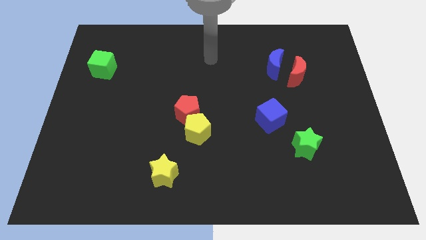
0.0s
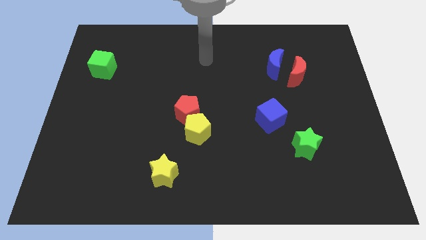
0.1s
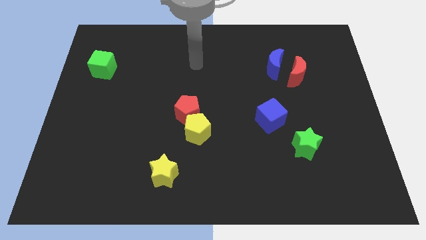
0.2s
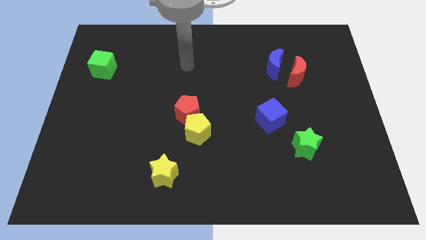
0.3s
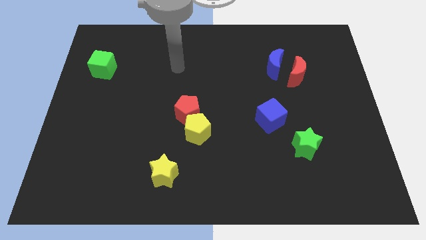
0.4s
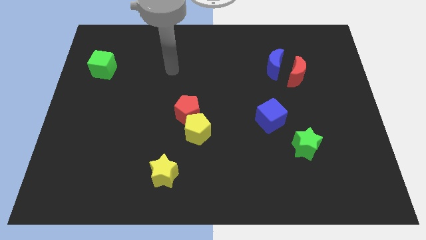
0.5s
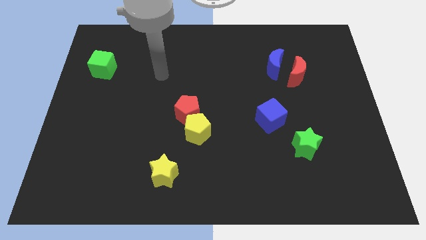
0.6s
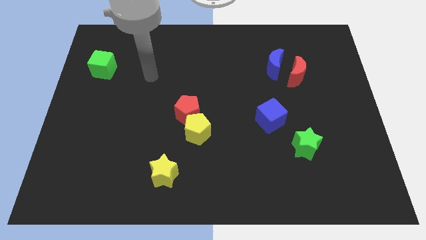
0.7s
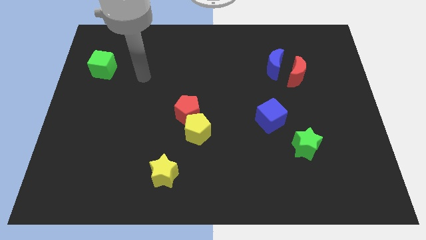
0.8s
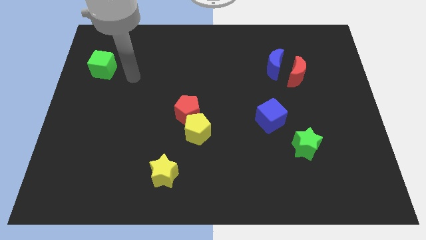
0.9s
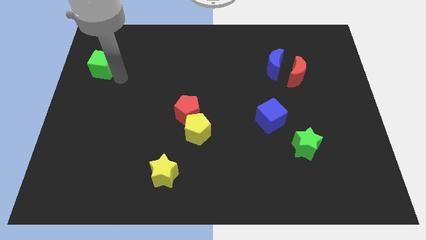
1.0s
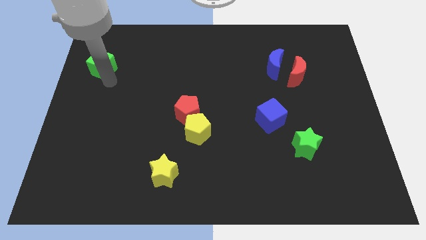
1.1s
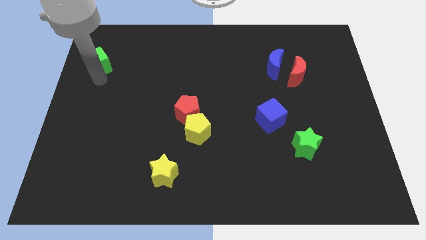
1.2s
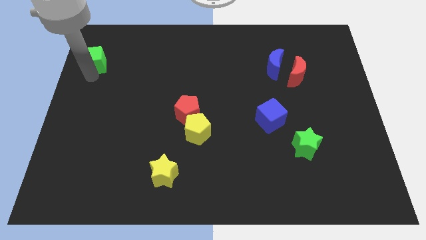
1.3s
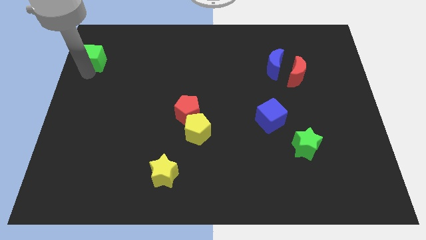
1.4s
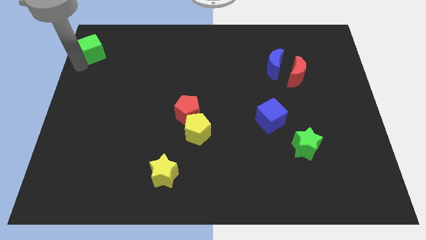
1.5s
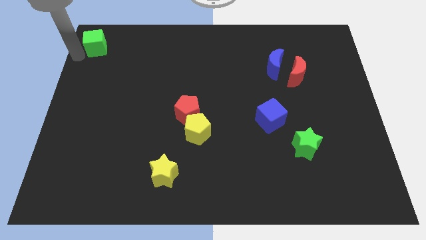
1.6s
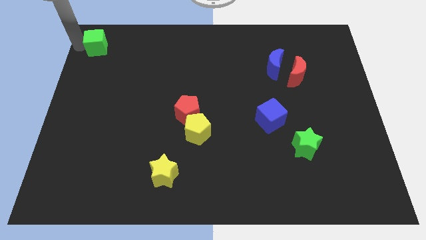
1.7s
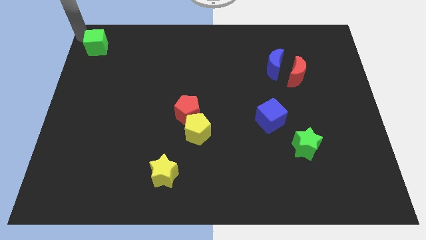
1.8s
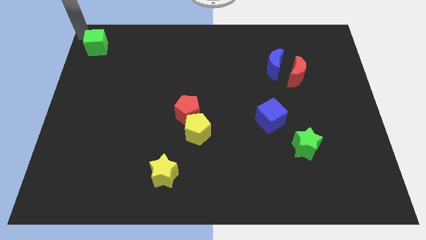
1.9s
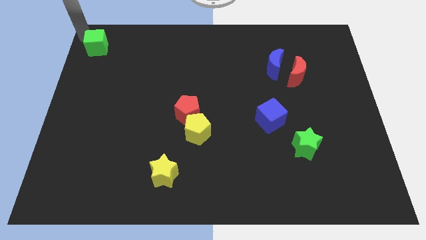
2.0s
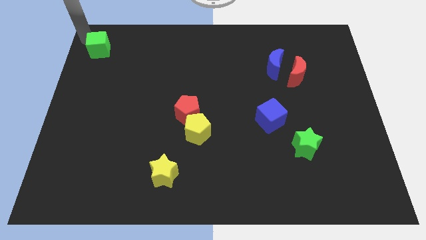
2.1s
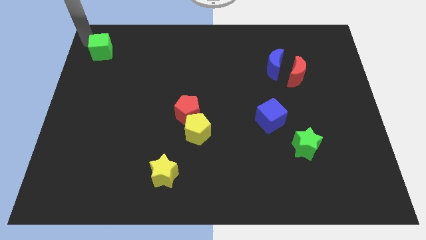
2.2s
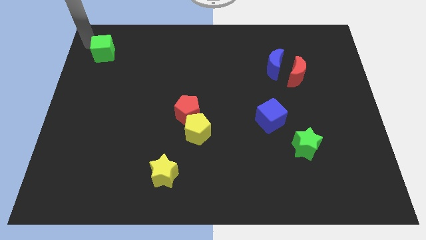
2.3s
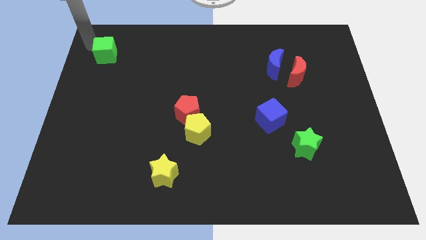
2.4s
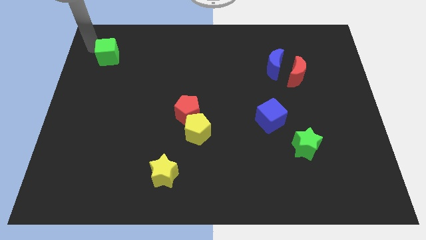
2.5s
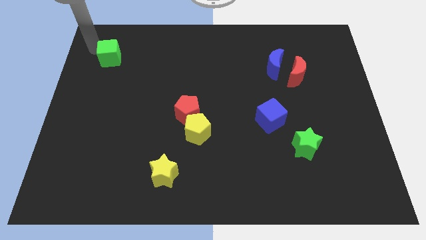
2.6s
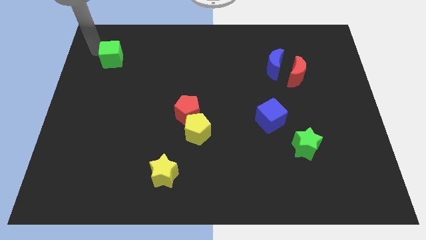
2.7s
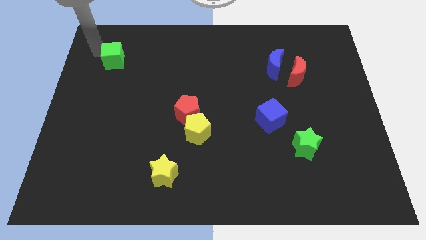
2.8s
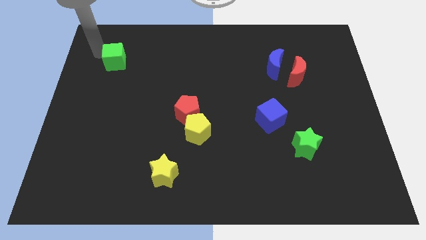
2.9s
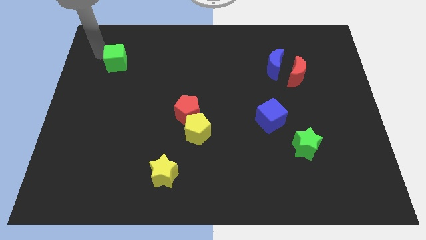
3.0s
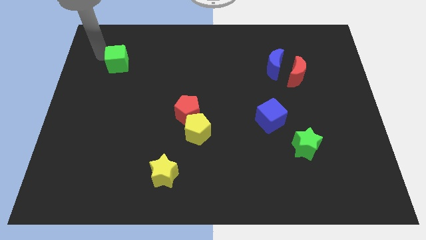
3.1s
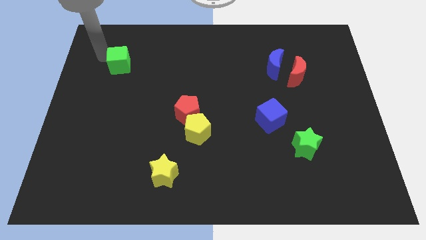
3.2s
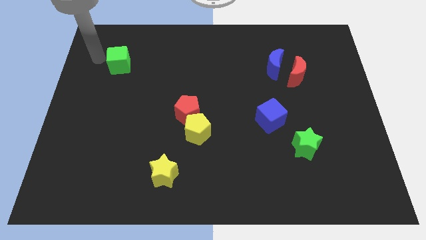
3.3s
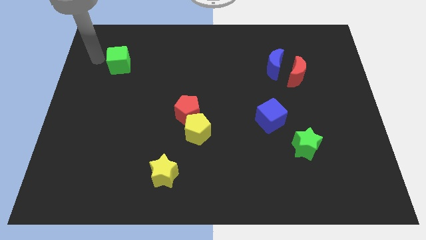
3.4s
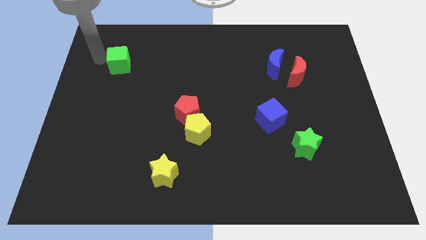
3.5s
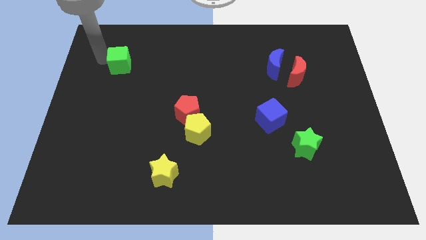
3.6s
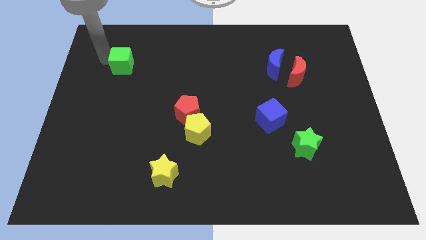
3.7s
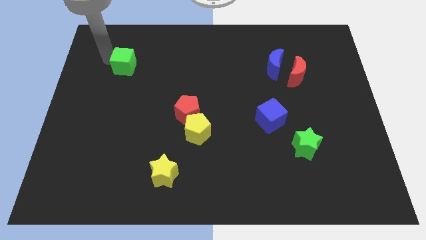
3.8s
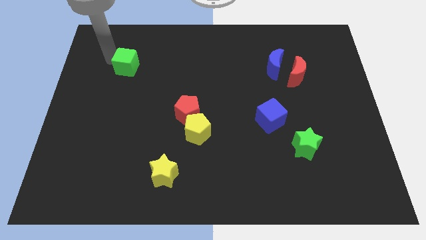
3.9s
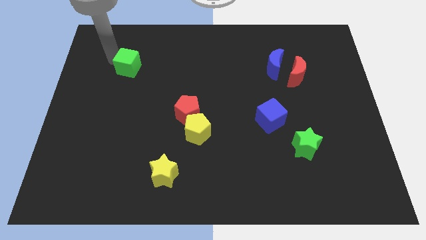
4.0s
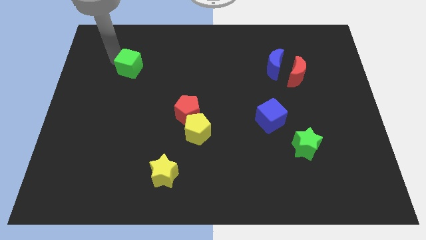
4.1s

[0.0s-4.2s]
move the green cube a little bit to the right

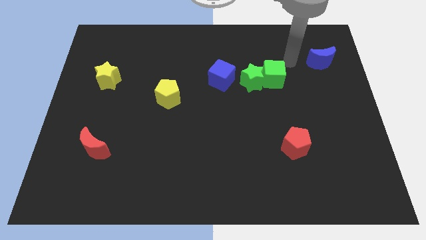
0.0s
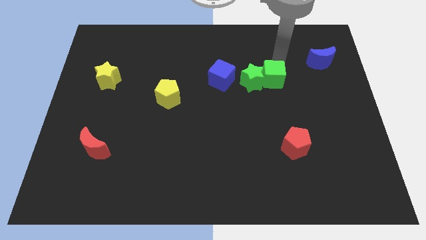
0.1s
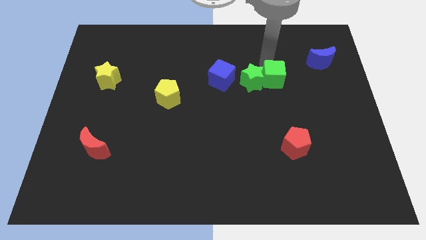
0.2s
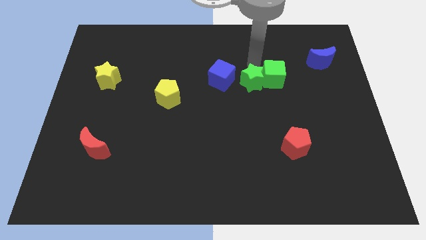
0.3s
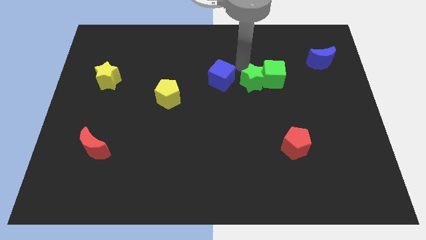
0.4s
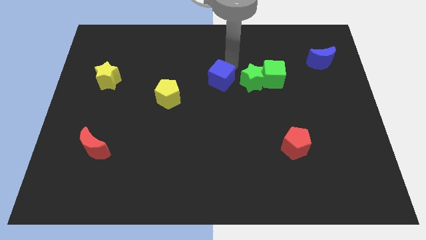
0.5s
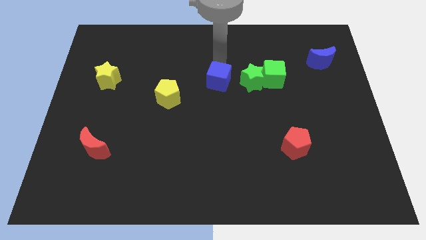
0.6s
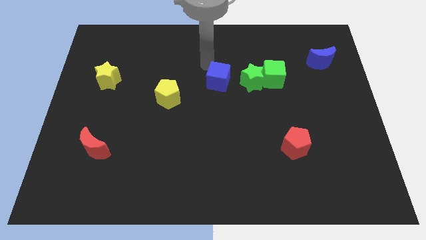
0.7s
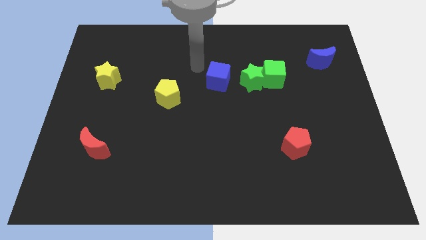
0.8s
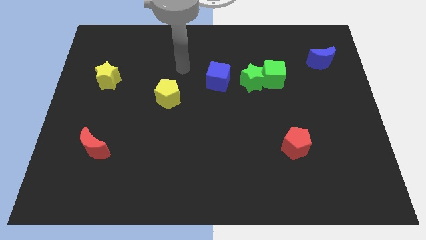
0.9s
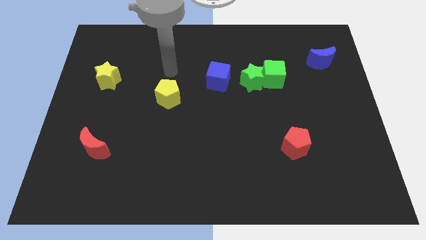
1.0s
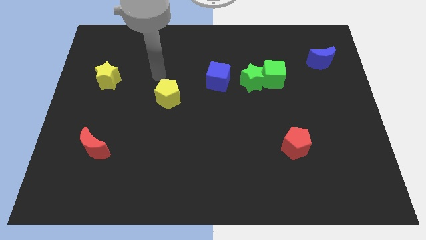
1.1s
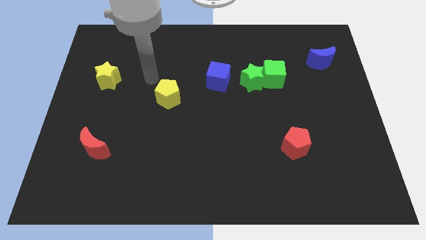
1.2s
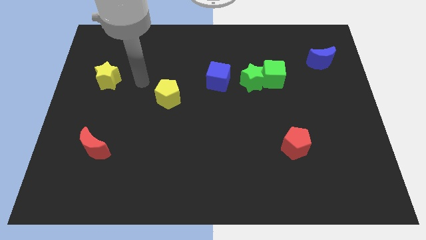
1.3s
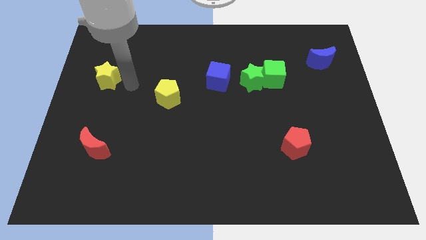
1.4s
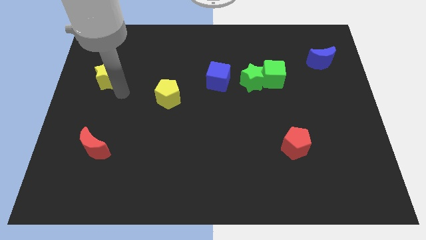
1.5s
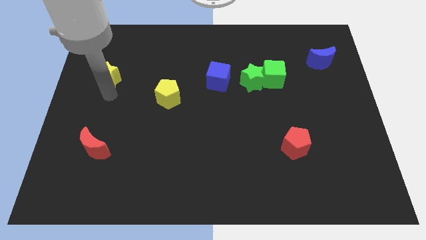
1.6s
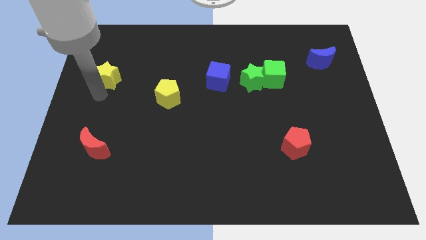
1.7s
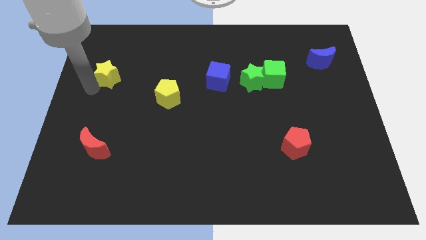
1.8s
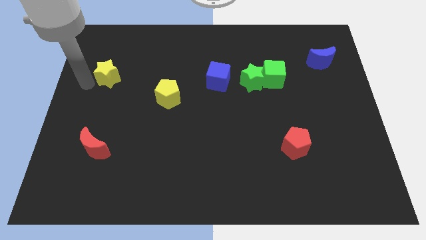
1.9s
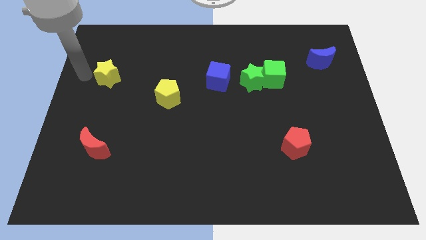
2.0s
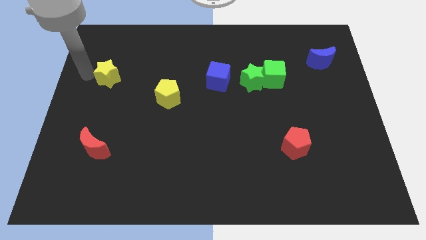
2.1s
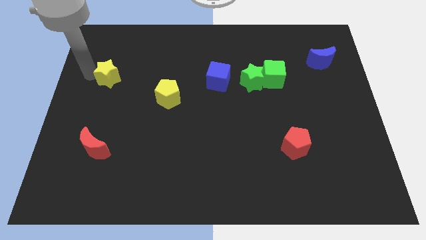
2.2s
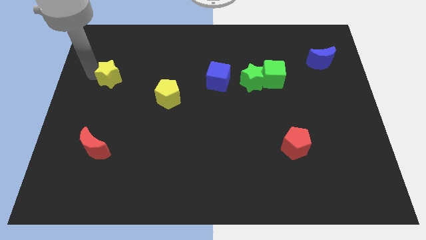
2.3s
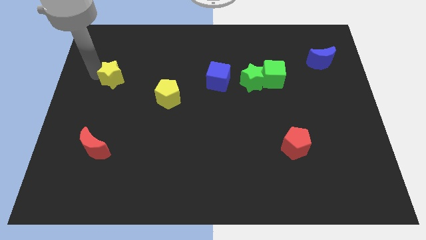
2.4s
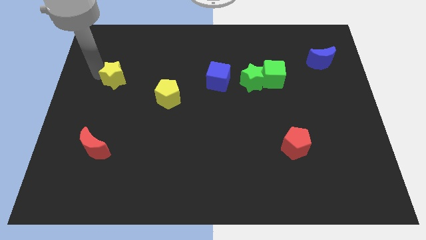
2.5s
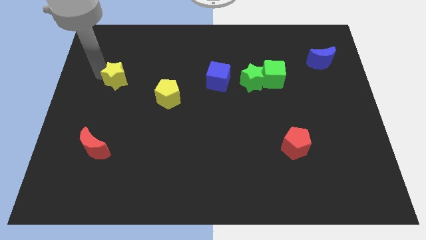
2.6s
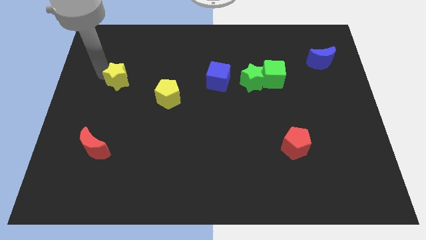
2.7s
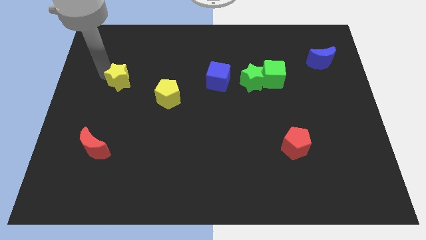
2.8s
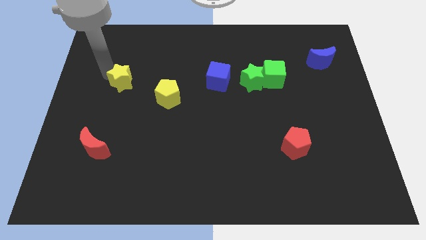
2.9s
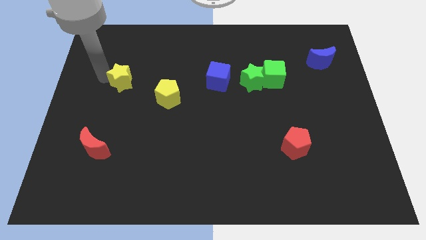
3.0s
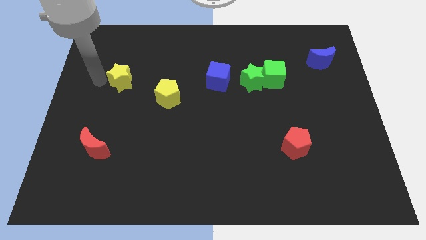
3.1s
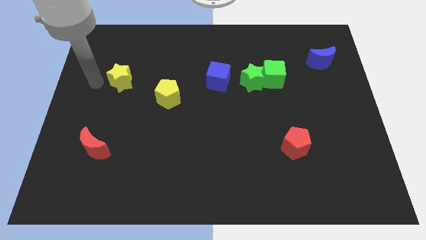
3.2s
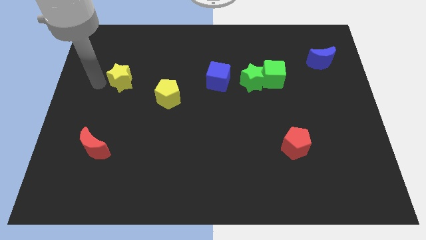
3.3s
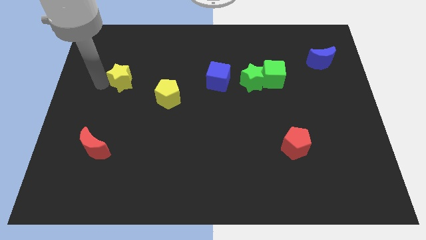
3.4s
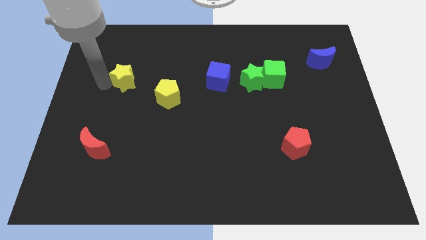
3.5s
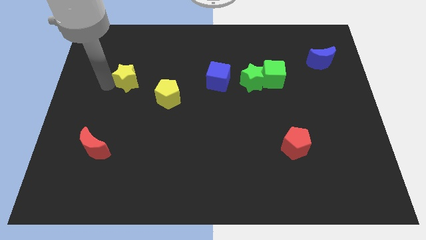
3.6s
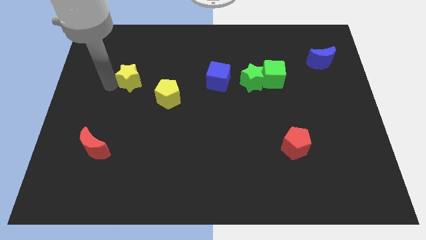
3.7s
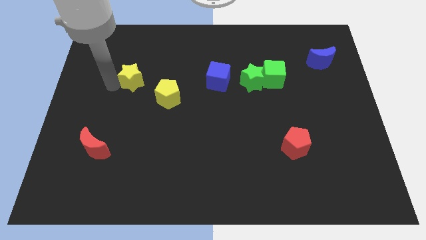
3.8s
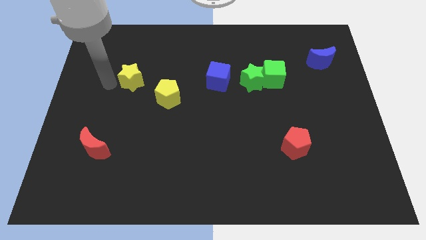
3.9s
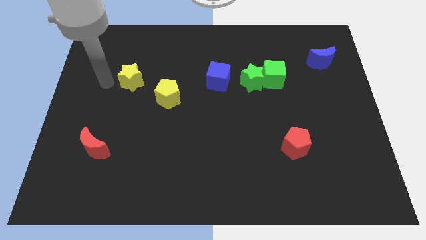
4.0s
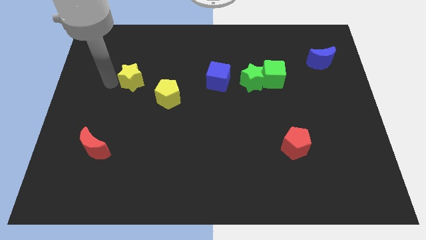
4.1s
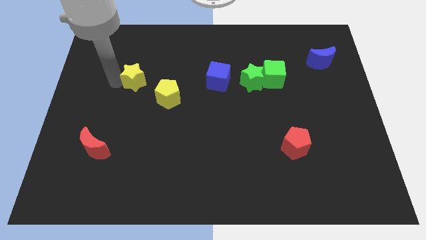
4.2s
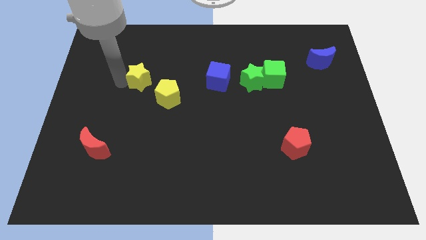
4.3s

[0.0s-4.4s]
move the yellow star somewhat right
